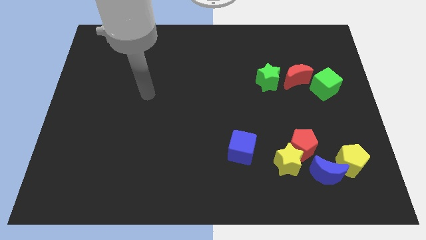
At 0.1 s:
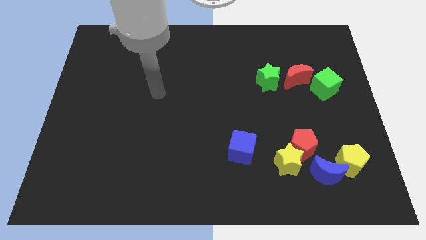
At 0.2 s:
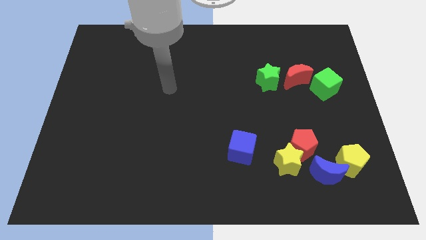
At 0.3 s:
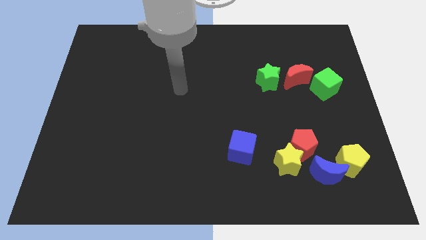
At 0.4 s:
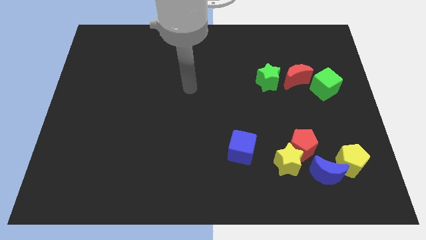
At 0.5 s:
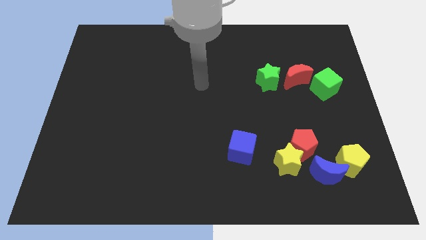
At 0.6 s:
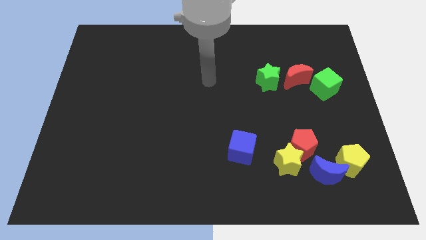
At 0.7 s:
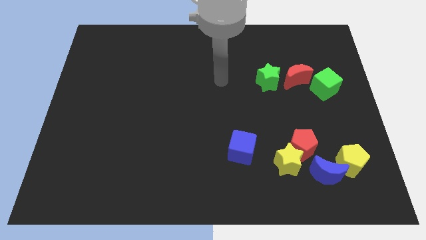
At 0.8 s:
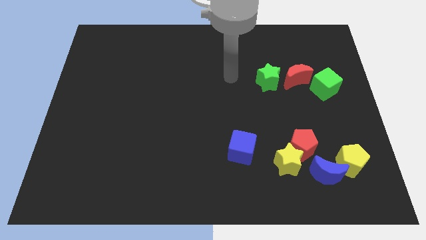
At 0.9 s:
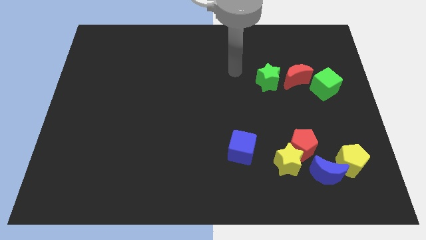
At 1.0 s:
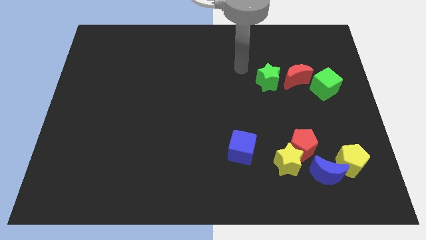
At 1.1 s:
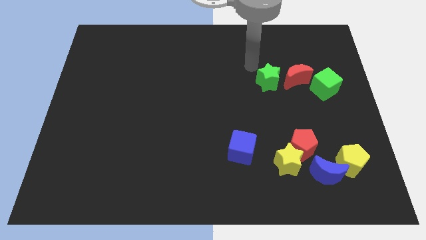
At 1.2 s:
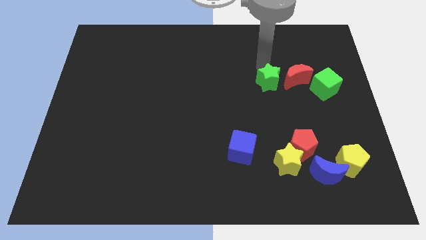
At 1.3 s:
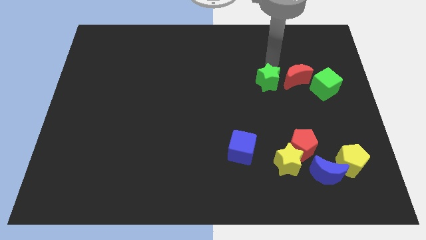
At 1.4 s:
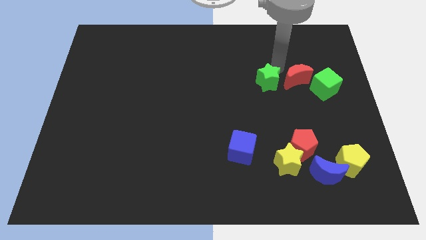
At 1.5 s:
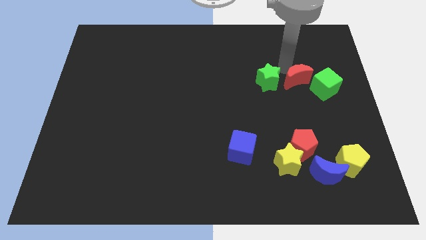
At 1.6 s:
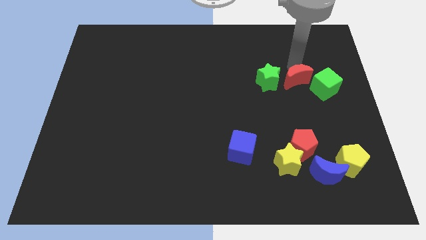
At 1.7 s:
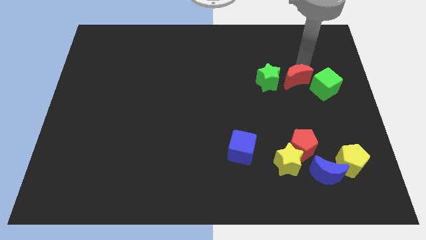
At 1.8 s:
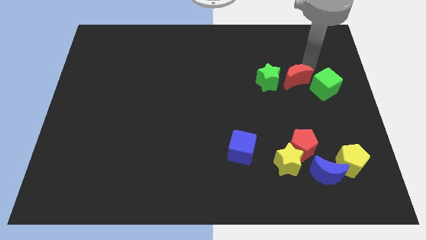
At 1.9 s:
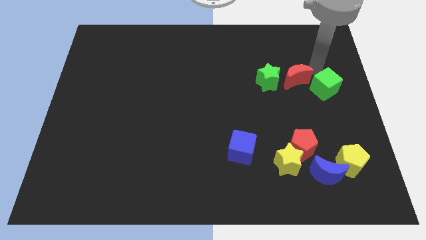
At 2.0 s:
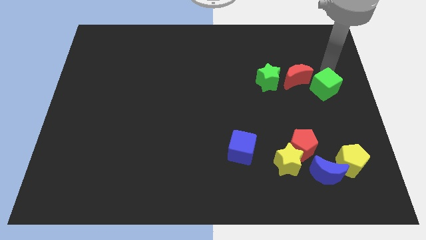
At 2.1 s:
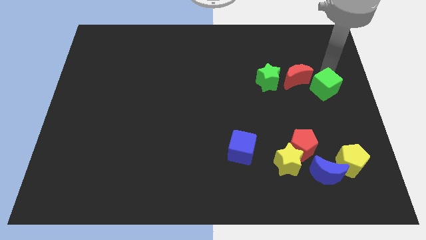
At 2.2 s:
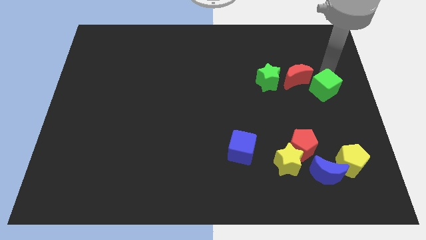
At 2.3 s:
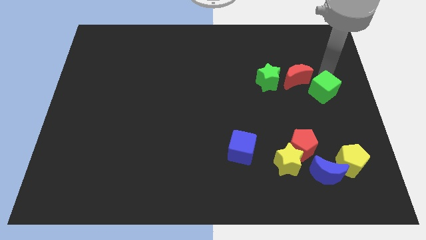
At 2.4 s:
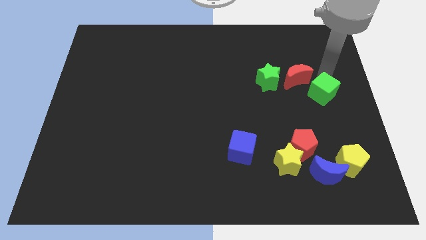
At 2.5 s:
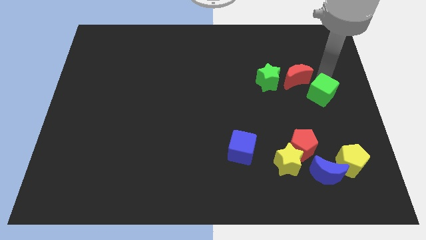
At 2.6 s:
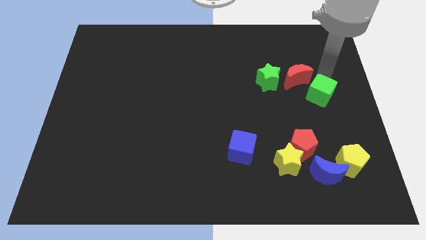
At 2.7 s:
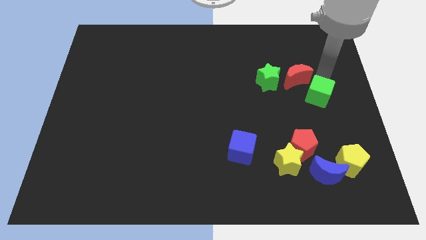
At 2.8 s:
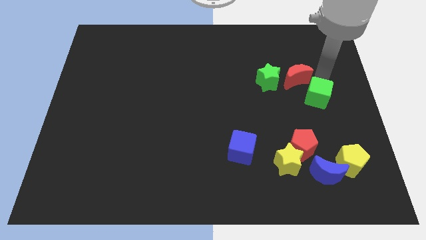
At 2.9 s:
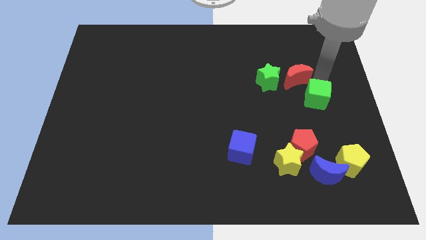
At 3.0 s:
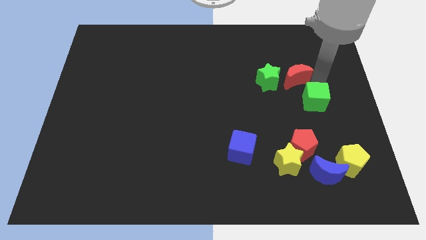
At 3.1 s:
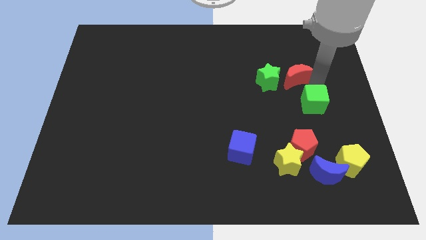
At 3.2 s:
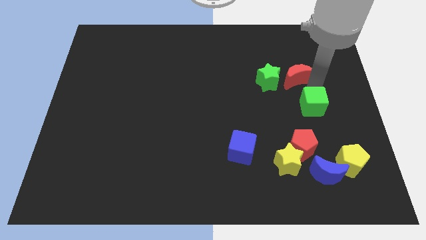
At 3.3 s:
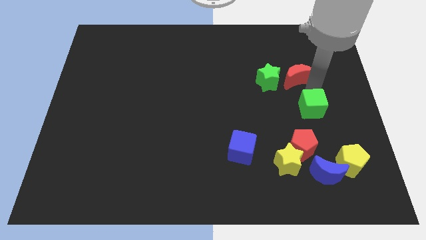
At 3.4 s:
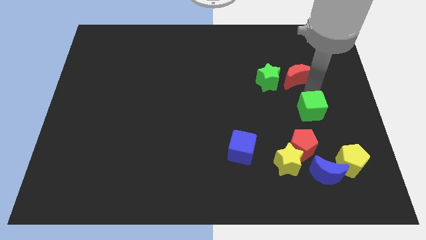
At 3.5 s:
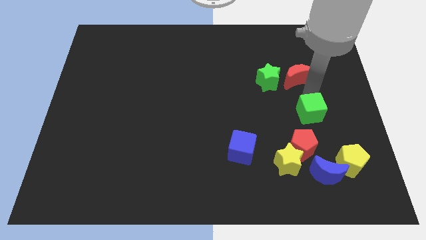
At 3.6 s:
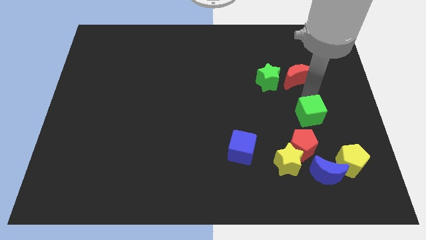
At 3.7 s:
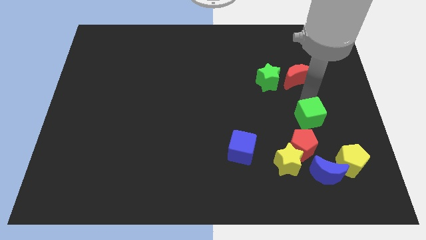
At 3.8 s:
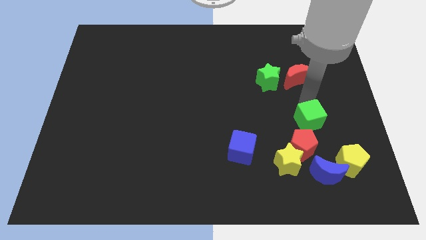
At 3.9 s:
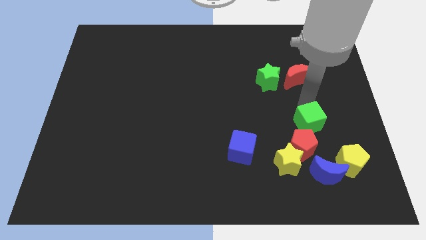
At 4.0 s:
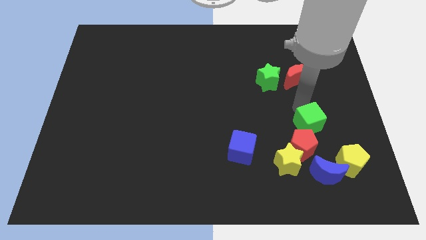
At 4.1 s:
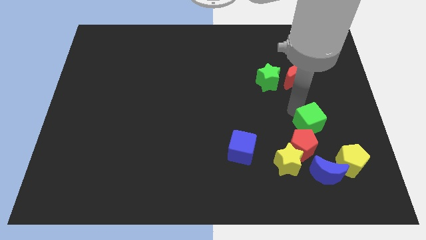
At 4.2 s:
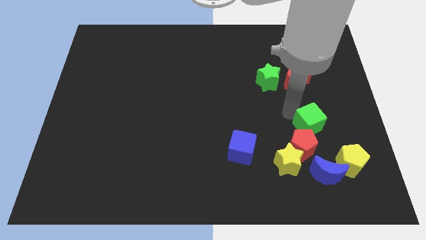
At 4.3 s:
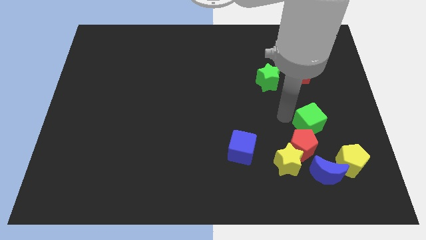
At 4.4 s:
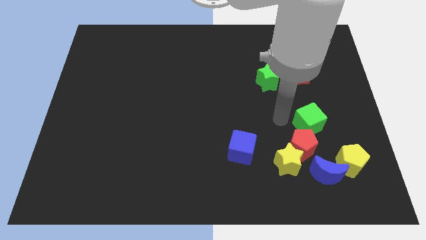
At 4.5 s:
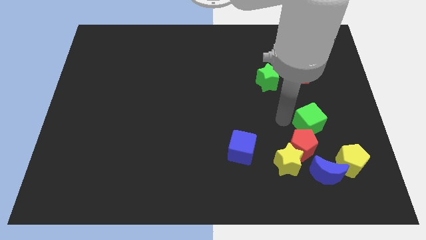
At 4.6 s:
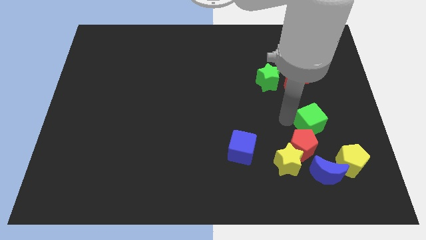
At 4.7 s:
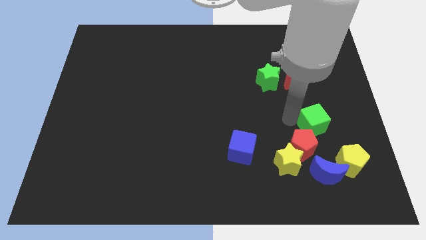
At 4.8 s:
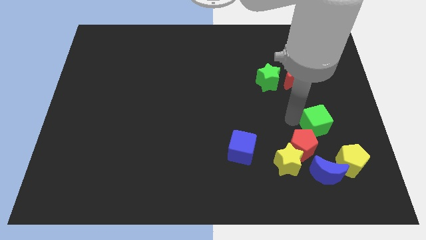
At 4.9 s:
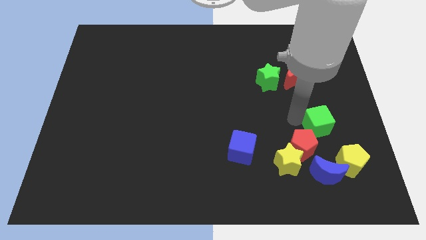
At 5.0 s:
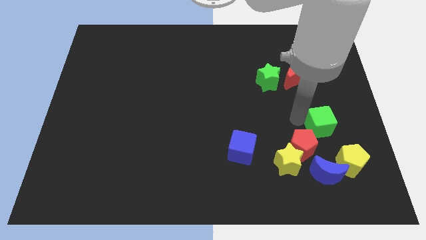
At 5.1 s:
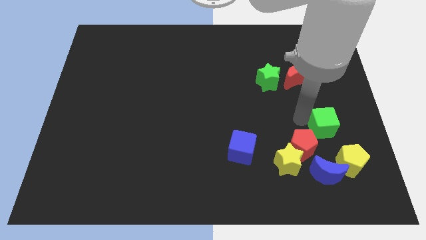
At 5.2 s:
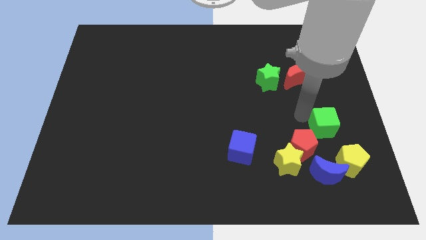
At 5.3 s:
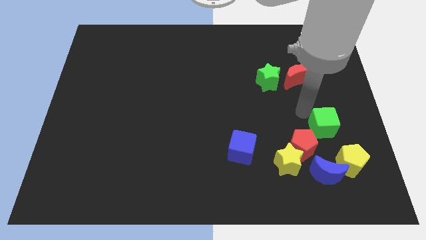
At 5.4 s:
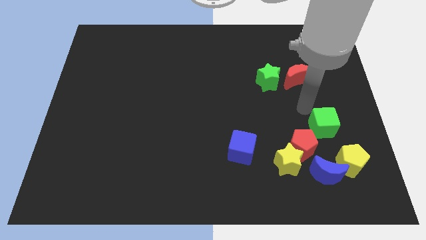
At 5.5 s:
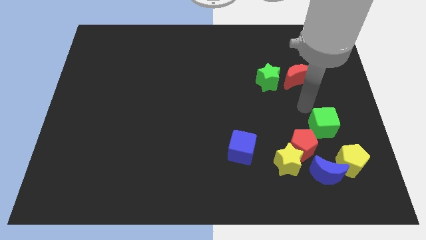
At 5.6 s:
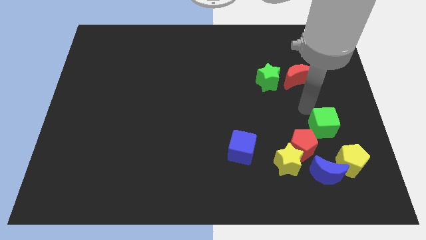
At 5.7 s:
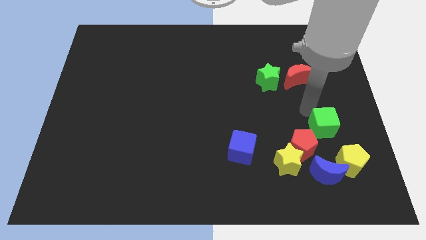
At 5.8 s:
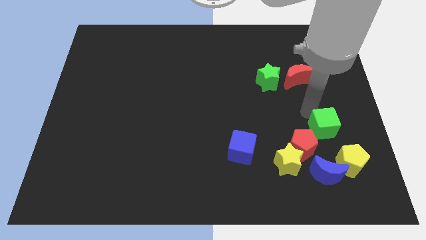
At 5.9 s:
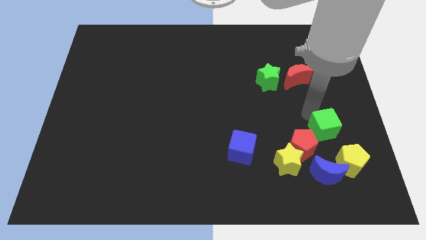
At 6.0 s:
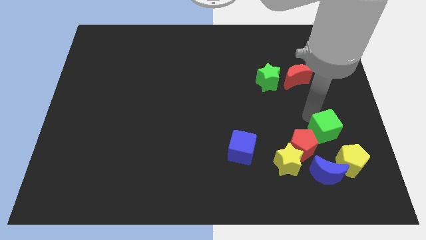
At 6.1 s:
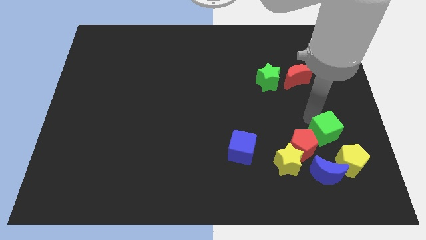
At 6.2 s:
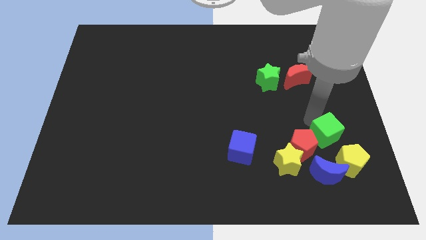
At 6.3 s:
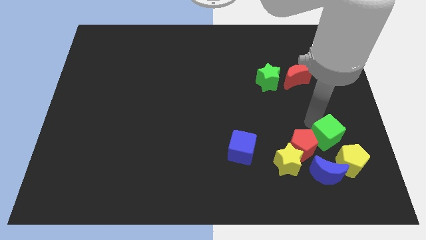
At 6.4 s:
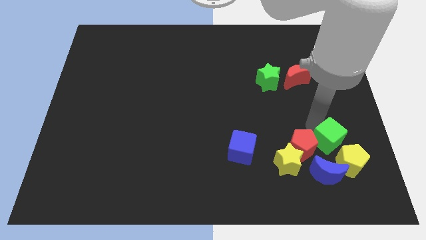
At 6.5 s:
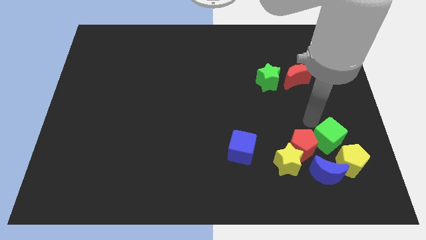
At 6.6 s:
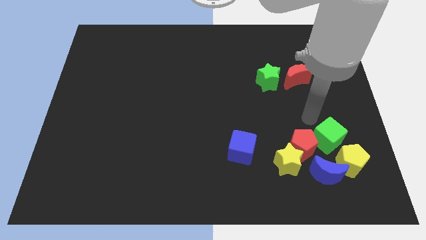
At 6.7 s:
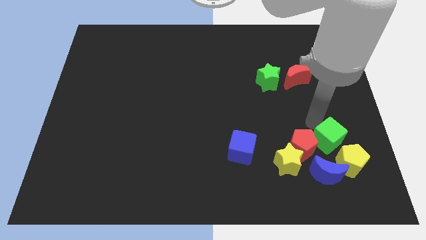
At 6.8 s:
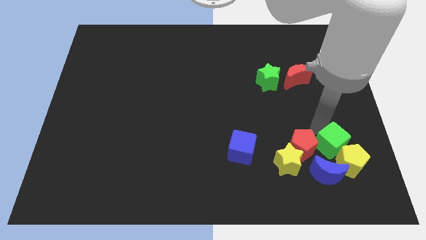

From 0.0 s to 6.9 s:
push the green cube next to the yellow pentagon

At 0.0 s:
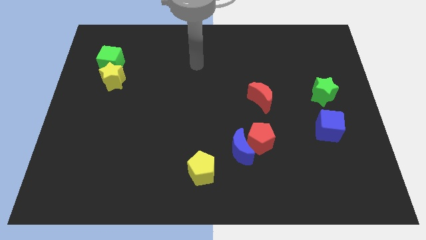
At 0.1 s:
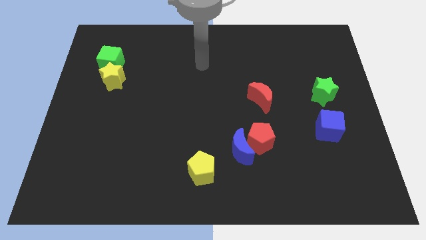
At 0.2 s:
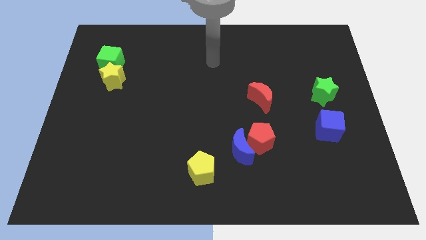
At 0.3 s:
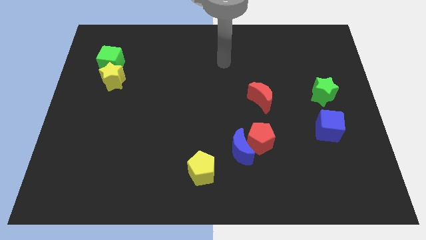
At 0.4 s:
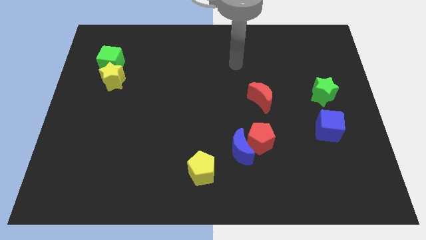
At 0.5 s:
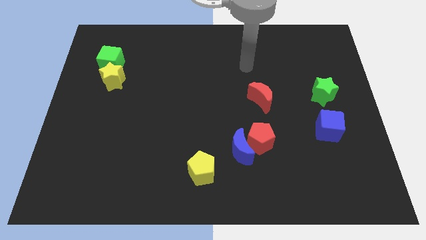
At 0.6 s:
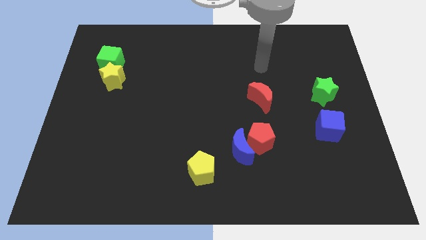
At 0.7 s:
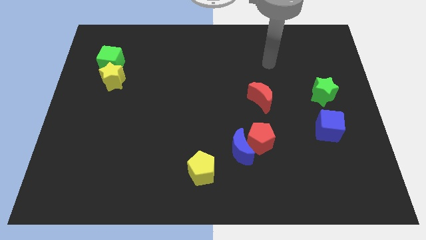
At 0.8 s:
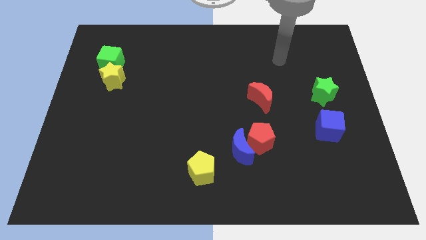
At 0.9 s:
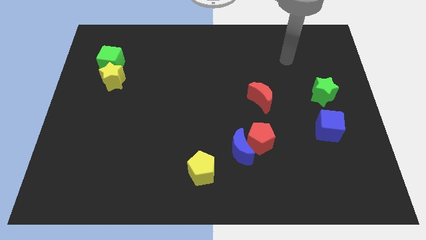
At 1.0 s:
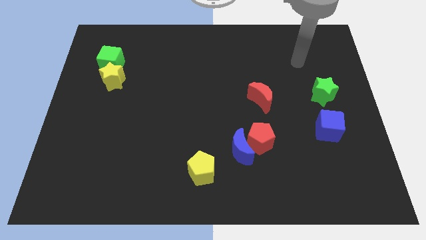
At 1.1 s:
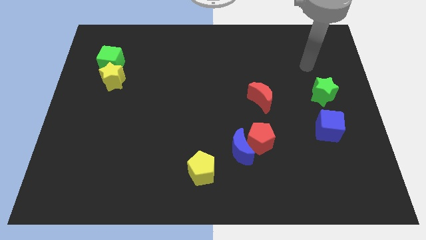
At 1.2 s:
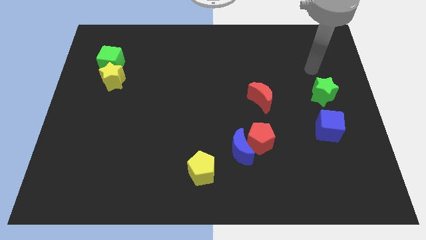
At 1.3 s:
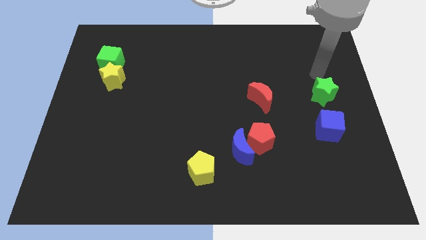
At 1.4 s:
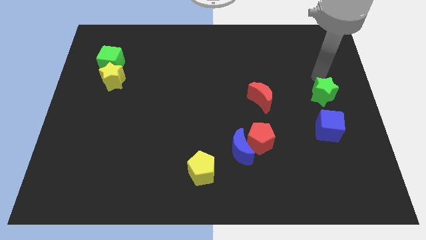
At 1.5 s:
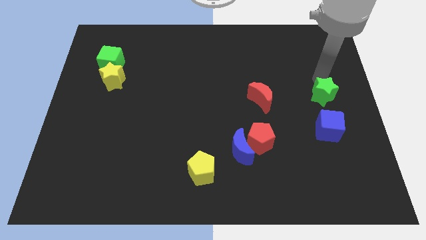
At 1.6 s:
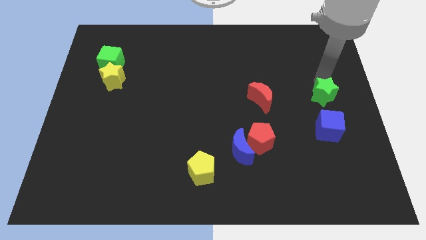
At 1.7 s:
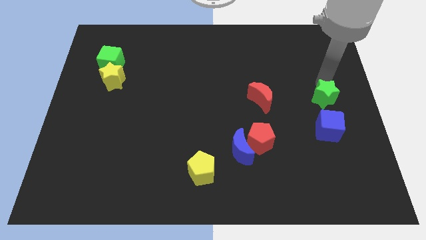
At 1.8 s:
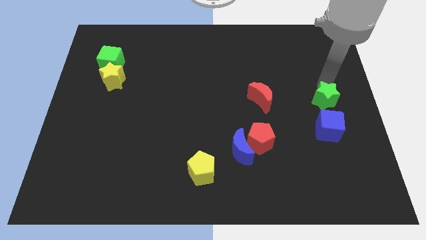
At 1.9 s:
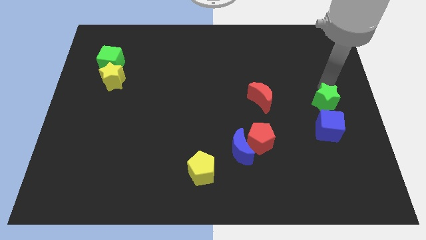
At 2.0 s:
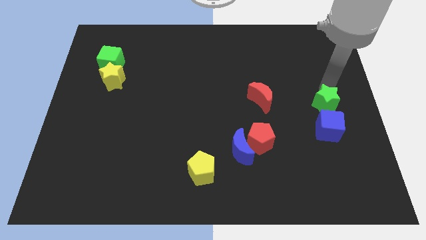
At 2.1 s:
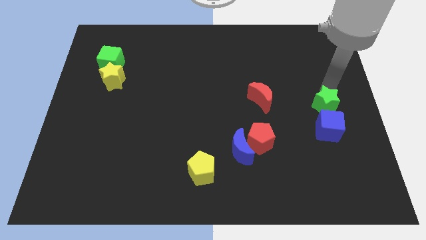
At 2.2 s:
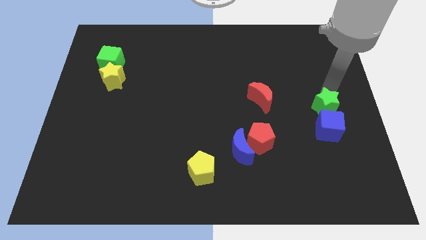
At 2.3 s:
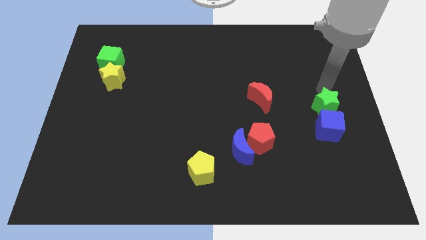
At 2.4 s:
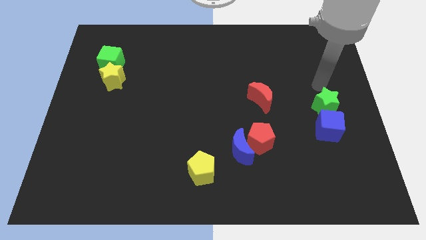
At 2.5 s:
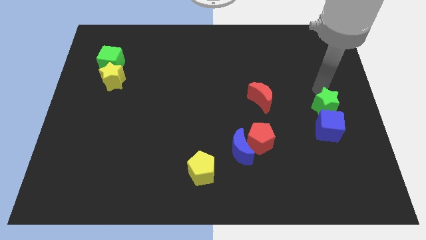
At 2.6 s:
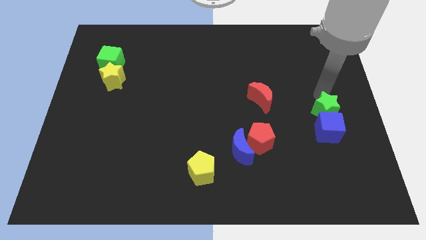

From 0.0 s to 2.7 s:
push the green star close to the blue cube
